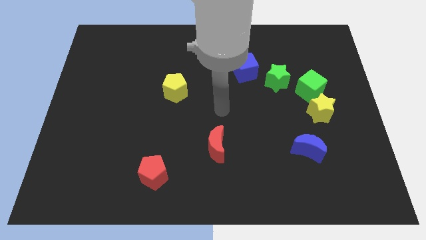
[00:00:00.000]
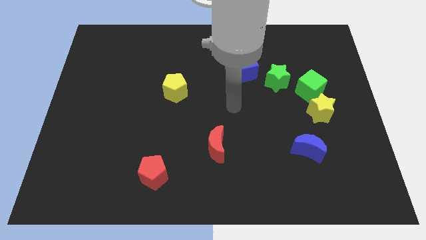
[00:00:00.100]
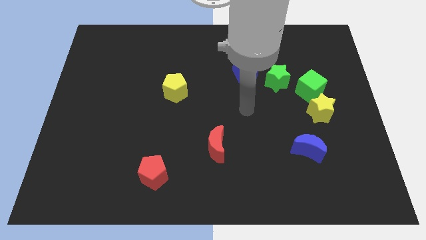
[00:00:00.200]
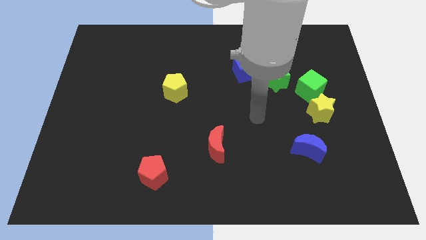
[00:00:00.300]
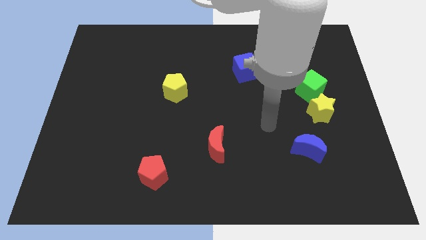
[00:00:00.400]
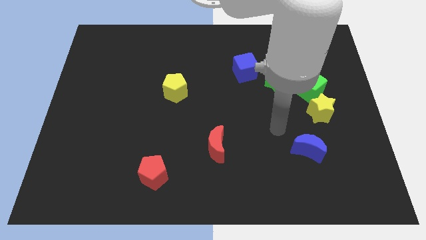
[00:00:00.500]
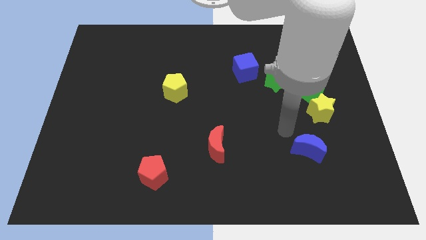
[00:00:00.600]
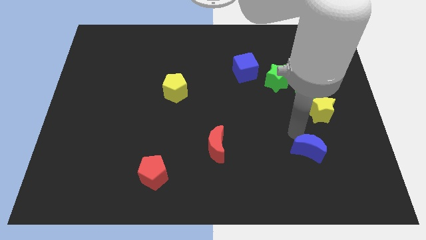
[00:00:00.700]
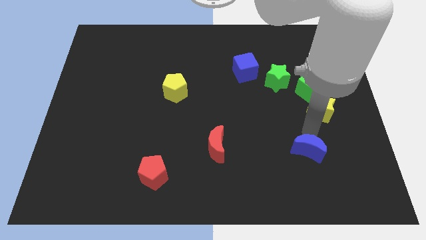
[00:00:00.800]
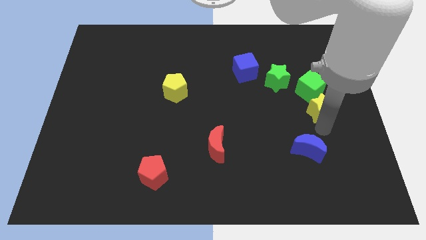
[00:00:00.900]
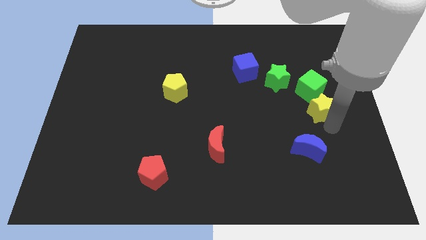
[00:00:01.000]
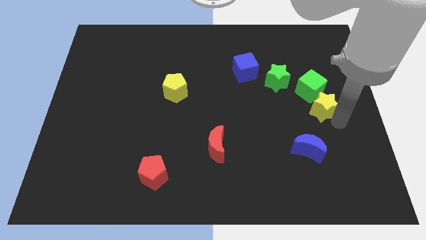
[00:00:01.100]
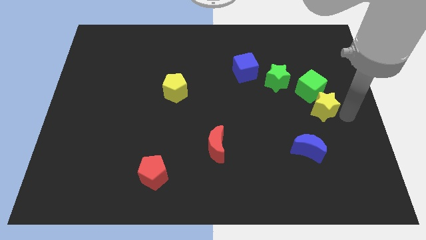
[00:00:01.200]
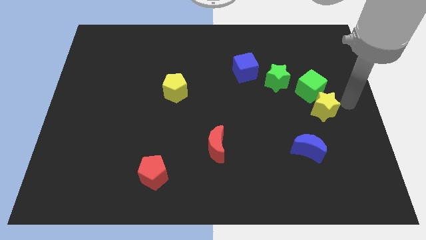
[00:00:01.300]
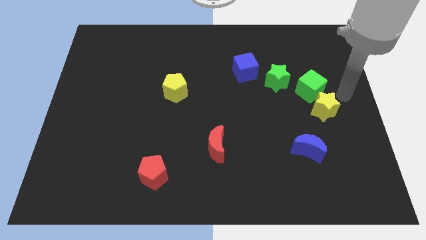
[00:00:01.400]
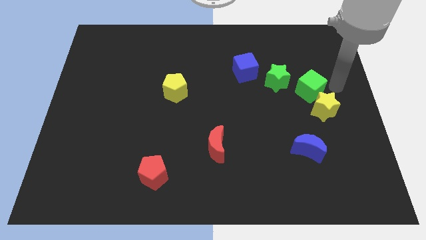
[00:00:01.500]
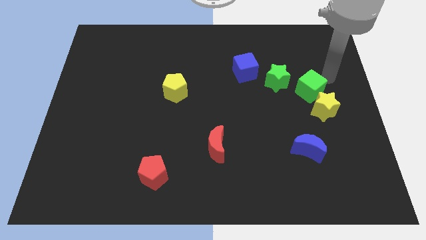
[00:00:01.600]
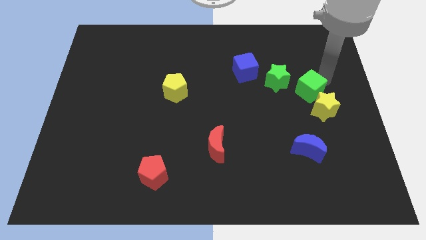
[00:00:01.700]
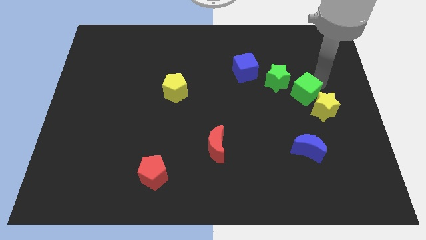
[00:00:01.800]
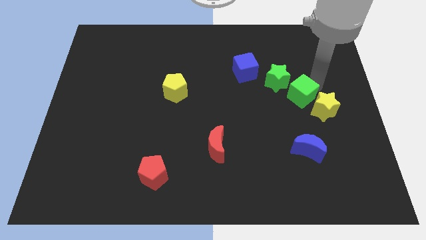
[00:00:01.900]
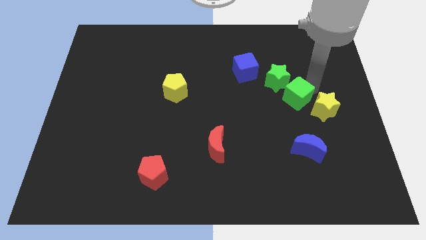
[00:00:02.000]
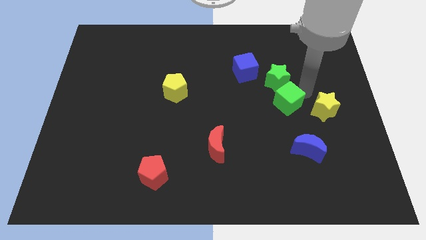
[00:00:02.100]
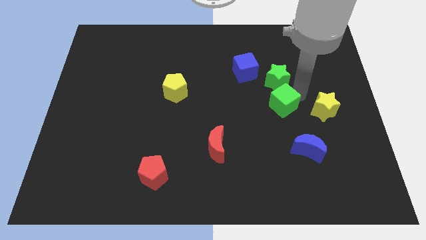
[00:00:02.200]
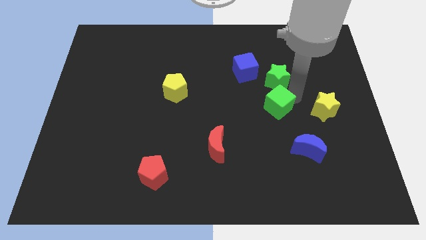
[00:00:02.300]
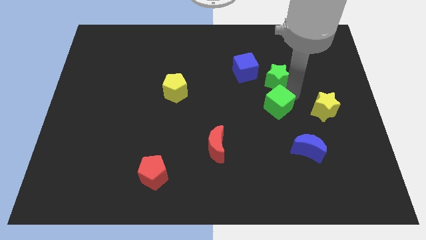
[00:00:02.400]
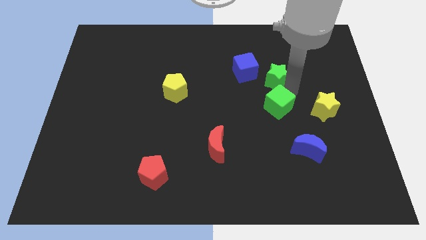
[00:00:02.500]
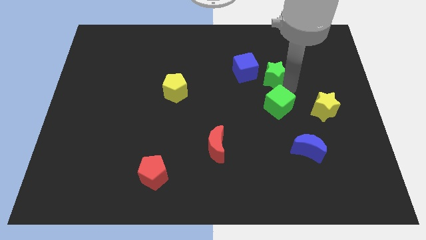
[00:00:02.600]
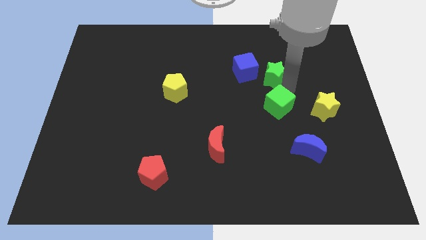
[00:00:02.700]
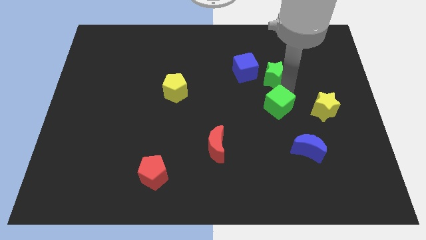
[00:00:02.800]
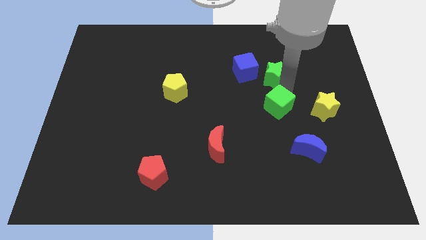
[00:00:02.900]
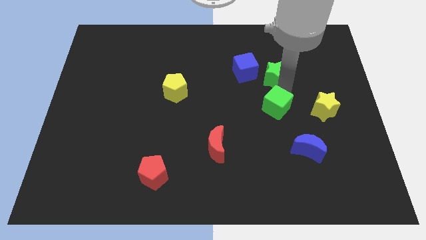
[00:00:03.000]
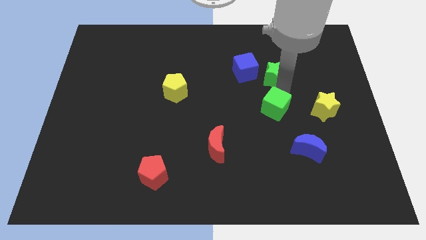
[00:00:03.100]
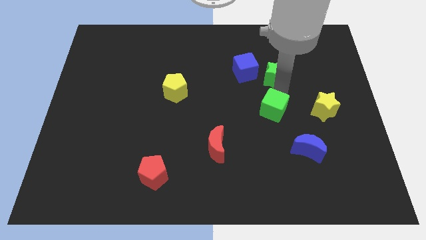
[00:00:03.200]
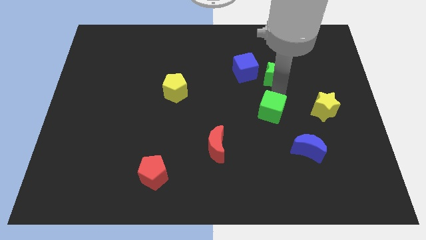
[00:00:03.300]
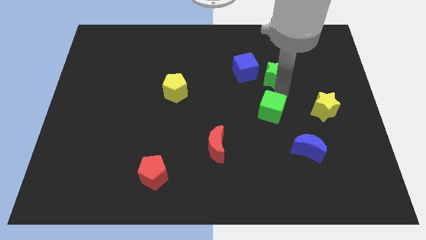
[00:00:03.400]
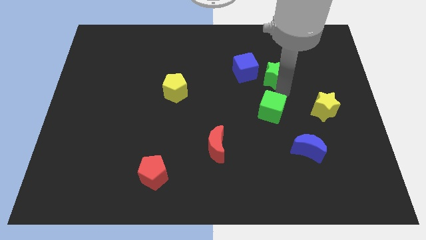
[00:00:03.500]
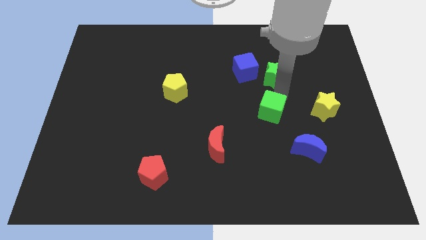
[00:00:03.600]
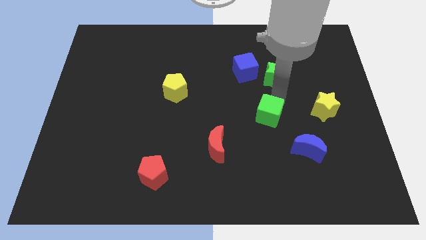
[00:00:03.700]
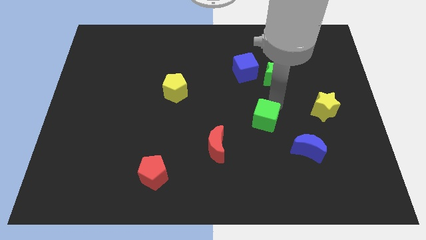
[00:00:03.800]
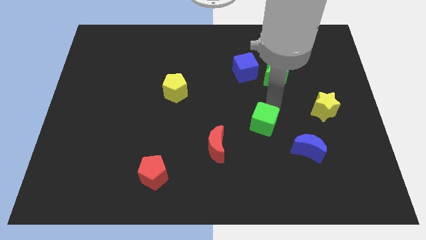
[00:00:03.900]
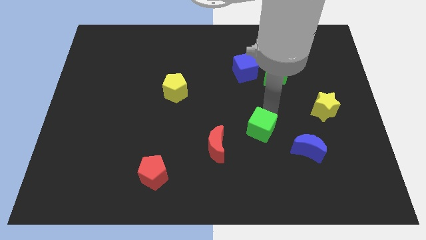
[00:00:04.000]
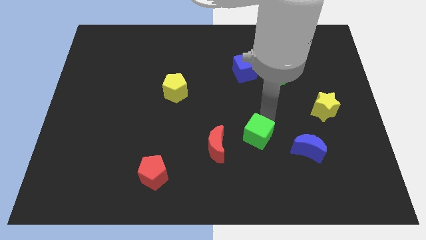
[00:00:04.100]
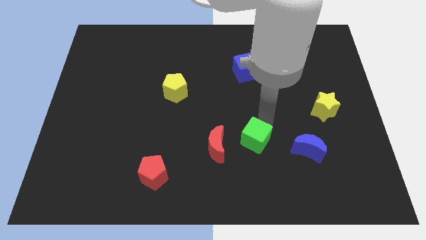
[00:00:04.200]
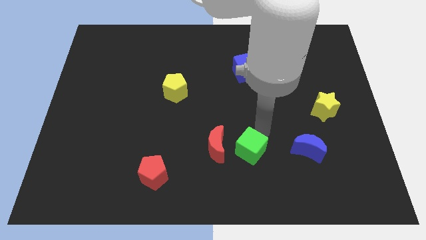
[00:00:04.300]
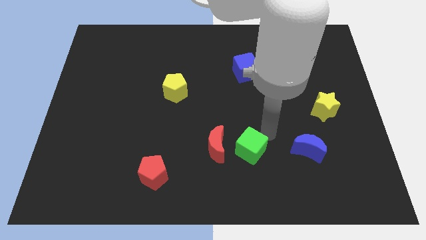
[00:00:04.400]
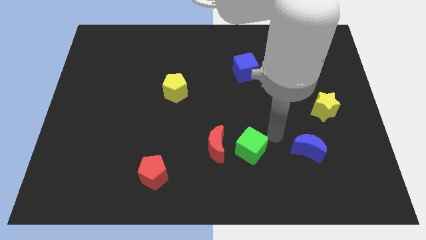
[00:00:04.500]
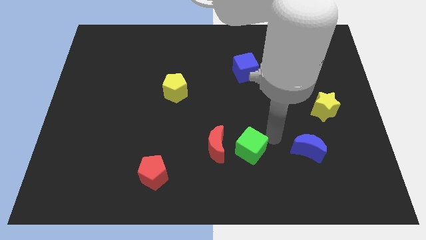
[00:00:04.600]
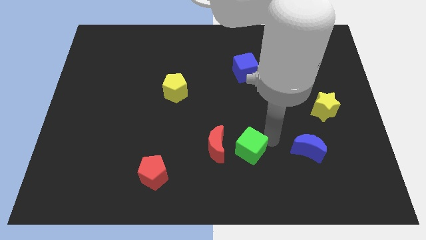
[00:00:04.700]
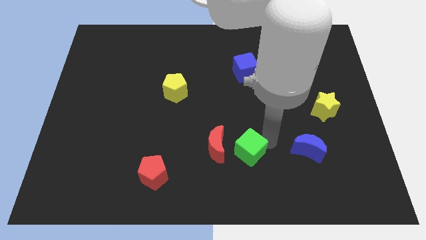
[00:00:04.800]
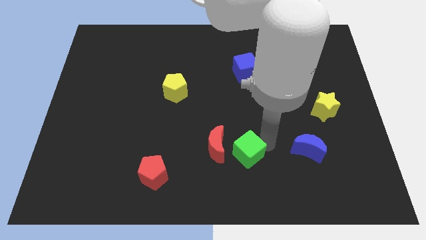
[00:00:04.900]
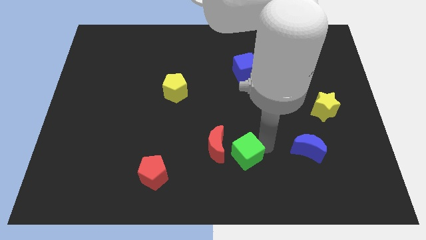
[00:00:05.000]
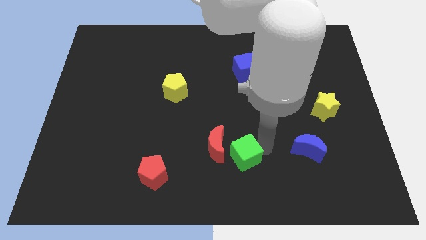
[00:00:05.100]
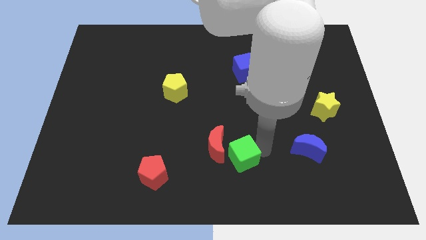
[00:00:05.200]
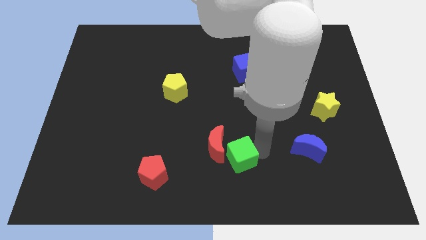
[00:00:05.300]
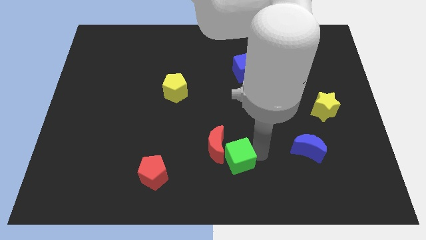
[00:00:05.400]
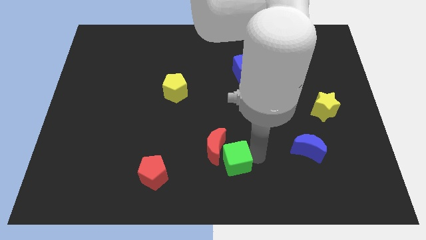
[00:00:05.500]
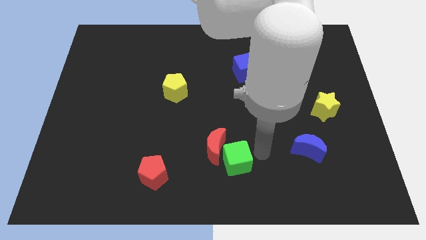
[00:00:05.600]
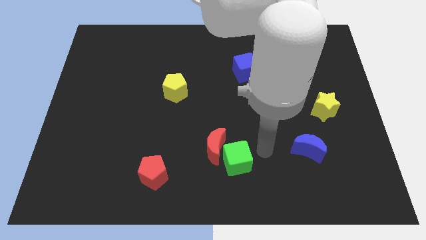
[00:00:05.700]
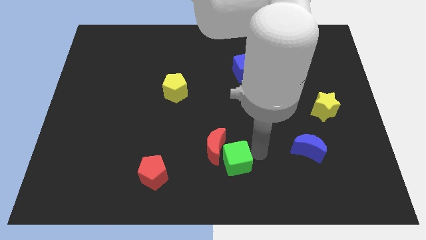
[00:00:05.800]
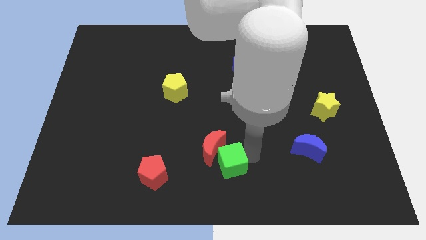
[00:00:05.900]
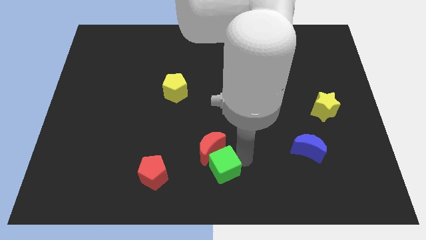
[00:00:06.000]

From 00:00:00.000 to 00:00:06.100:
push the green cube just right of the red pentagon

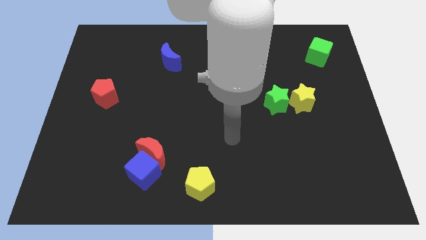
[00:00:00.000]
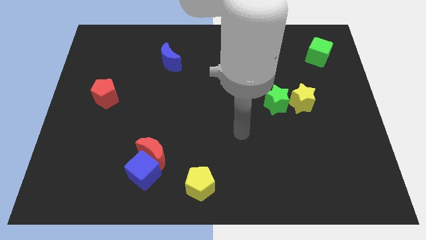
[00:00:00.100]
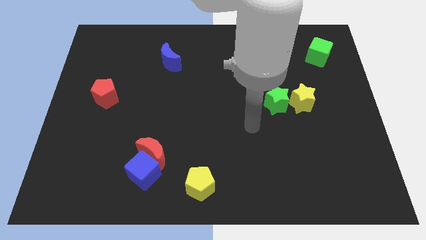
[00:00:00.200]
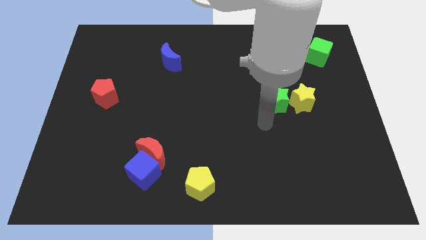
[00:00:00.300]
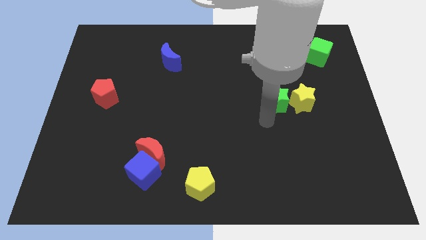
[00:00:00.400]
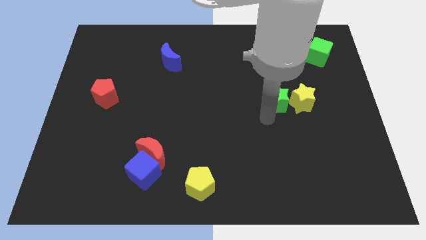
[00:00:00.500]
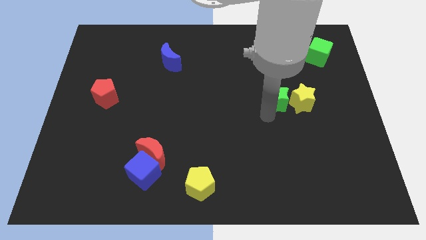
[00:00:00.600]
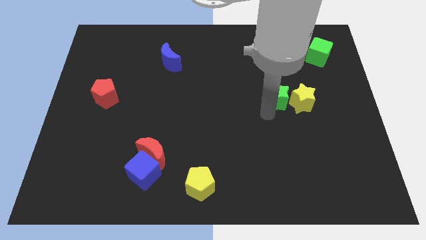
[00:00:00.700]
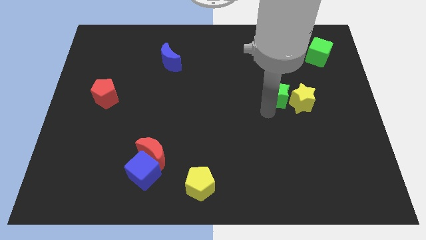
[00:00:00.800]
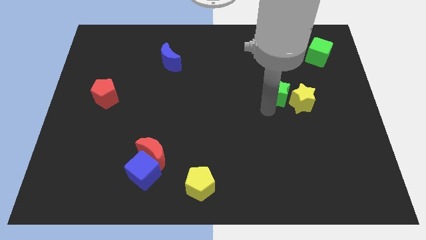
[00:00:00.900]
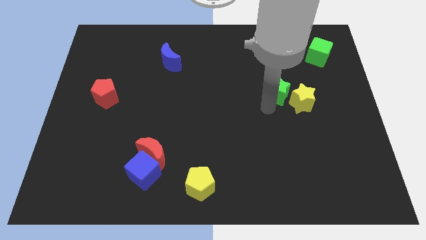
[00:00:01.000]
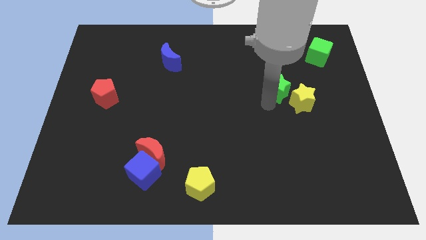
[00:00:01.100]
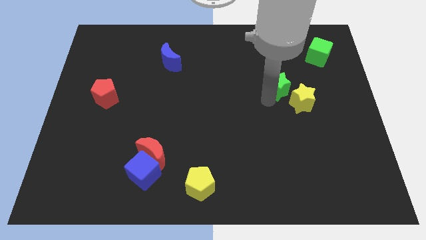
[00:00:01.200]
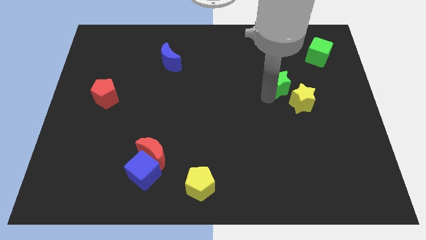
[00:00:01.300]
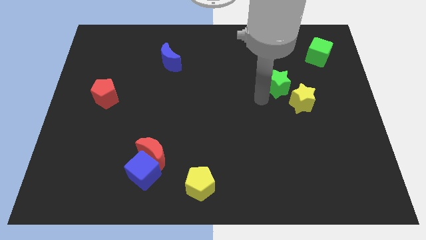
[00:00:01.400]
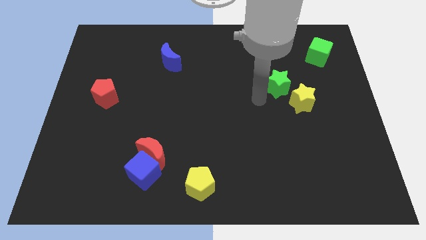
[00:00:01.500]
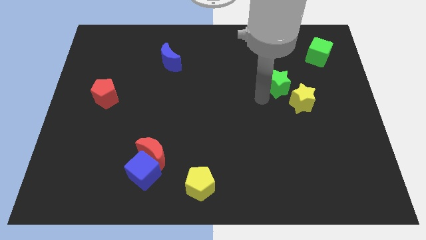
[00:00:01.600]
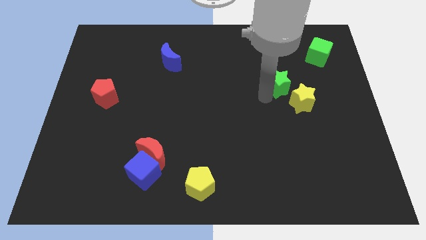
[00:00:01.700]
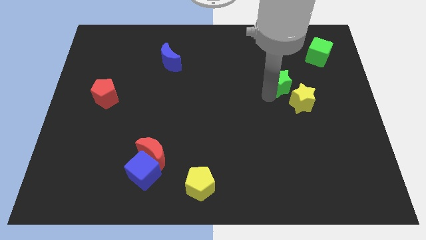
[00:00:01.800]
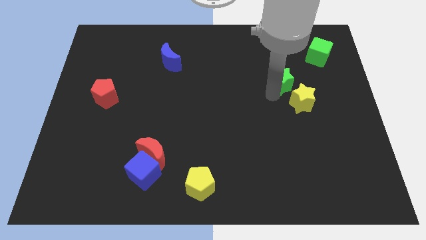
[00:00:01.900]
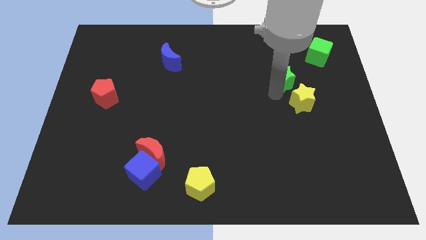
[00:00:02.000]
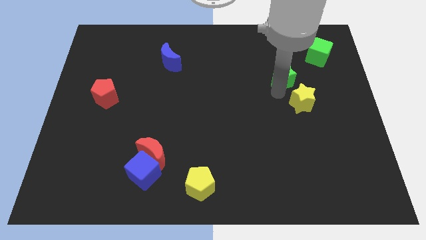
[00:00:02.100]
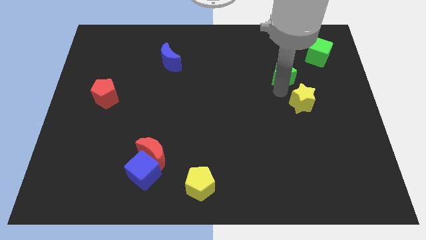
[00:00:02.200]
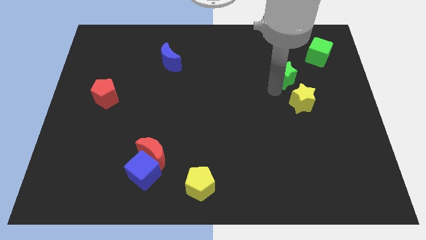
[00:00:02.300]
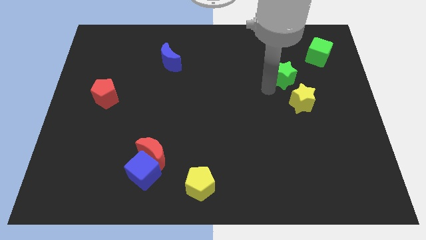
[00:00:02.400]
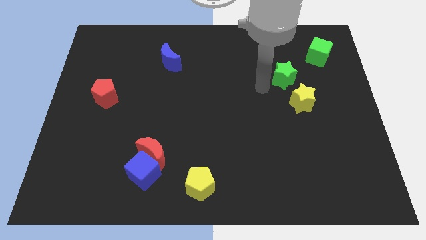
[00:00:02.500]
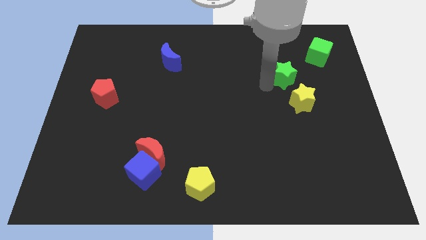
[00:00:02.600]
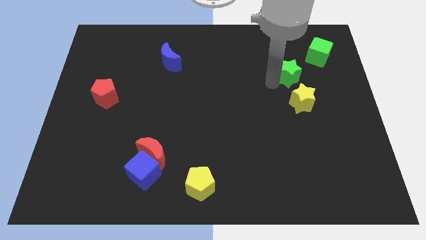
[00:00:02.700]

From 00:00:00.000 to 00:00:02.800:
slide the green star to the bottom left side of the green cube
